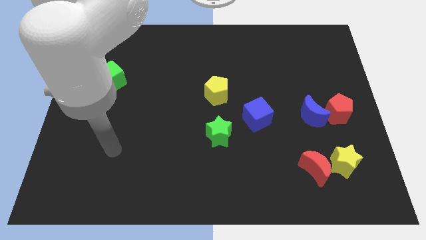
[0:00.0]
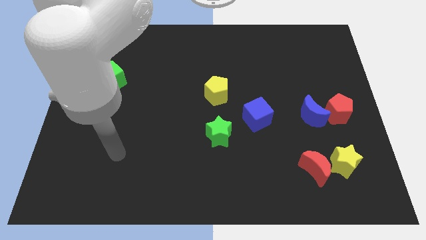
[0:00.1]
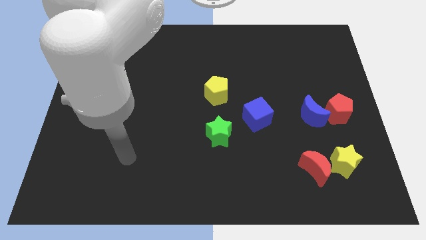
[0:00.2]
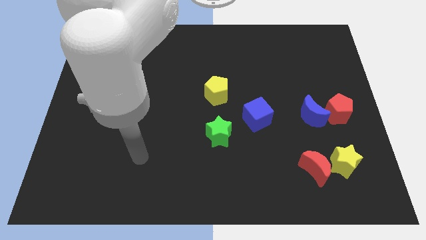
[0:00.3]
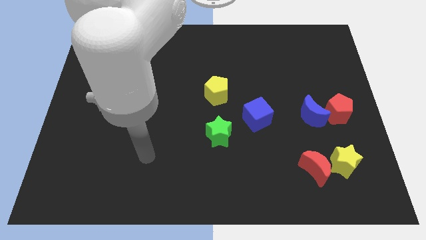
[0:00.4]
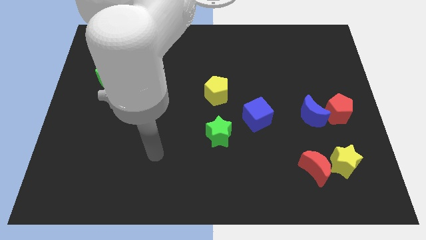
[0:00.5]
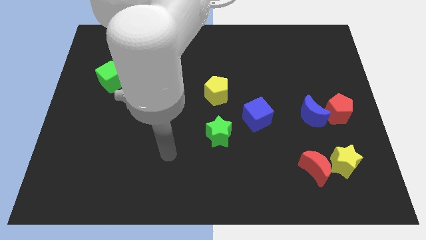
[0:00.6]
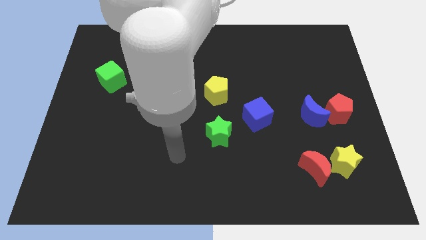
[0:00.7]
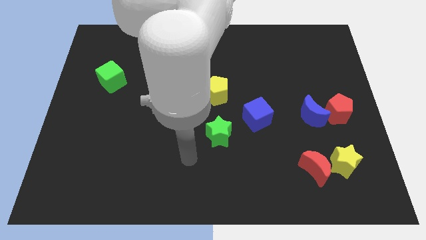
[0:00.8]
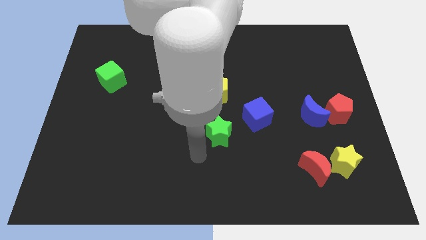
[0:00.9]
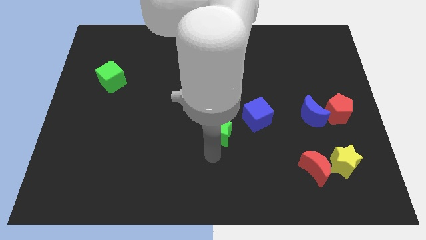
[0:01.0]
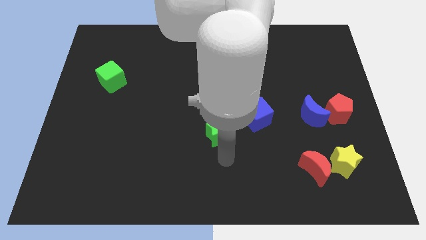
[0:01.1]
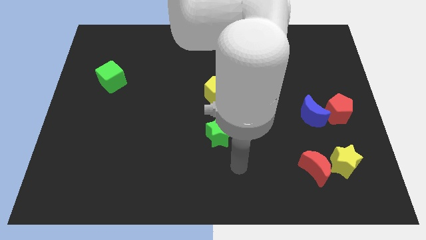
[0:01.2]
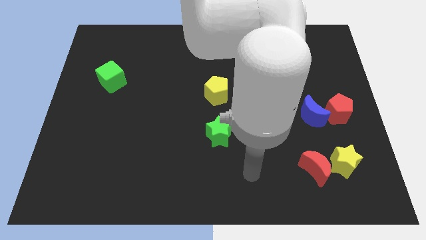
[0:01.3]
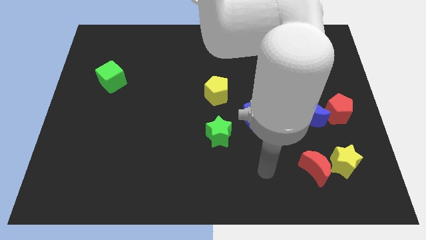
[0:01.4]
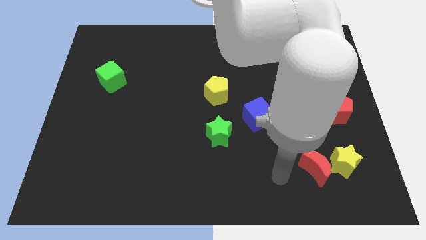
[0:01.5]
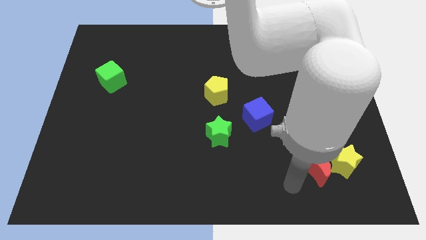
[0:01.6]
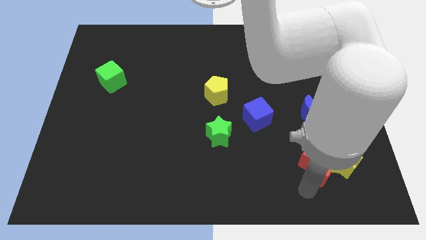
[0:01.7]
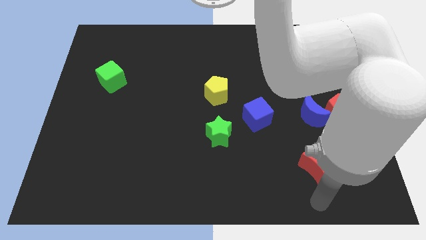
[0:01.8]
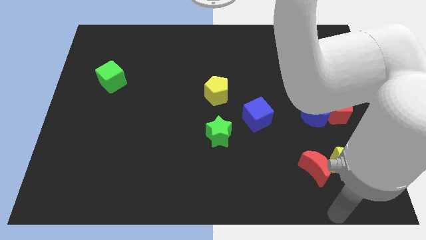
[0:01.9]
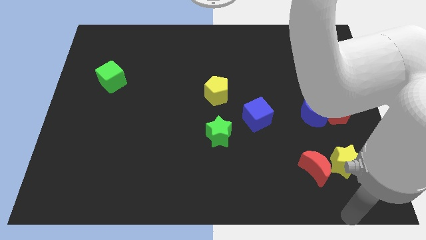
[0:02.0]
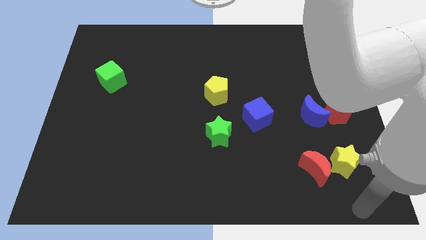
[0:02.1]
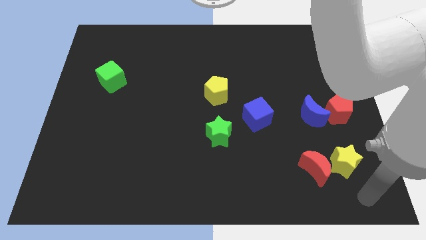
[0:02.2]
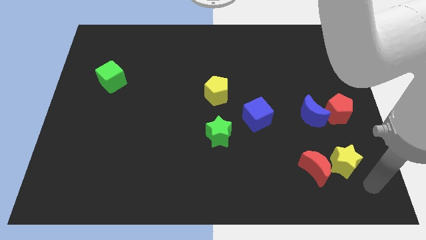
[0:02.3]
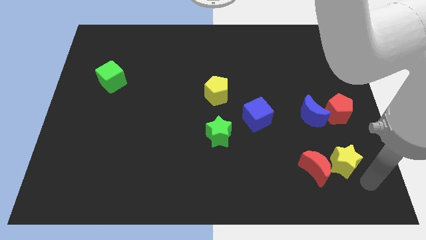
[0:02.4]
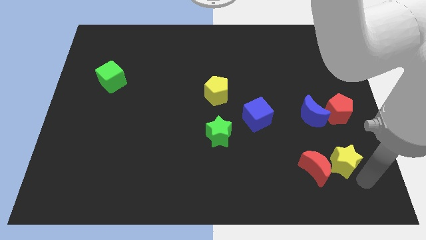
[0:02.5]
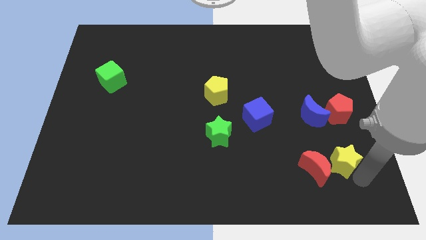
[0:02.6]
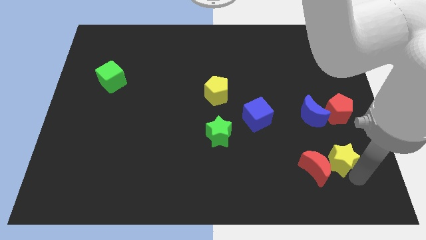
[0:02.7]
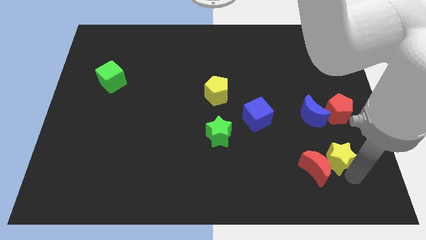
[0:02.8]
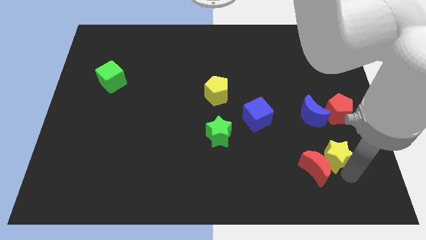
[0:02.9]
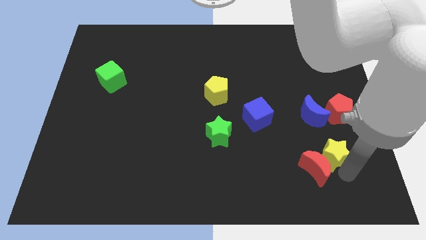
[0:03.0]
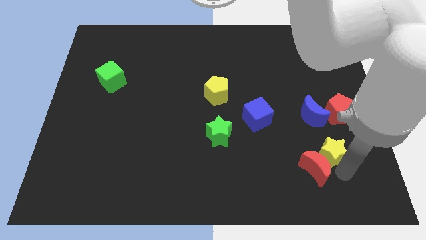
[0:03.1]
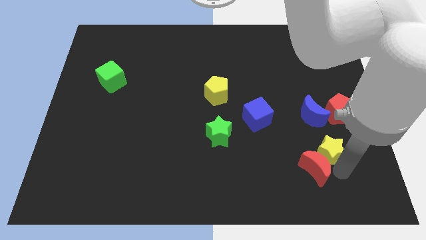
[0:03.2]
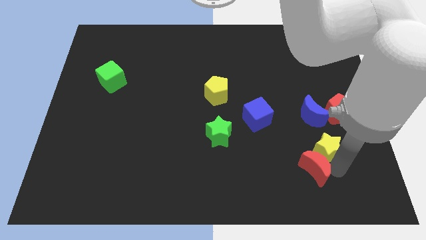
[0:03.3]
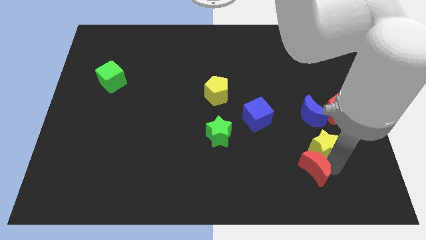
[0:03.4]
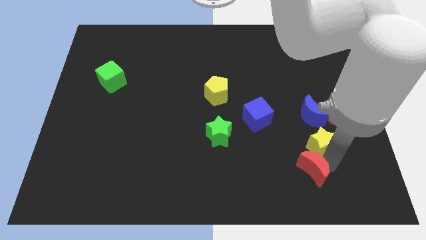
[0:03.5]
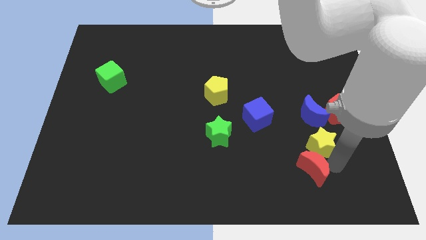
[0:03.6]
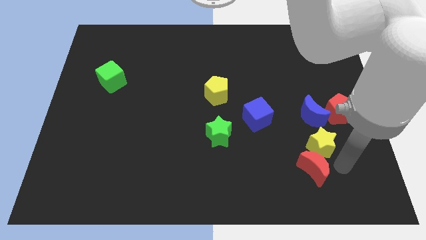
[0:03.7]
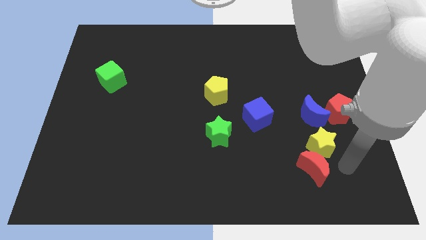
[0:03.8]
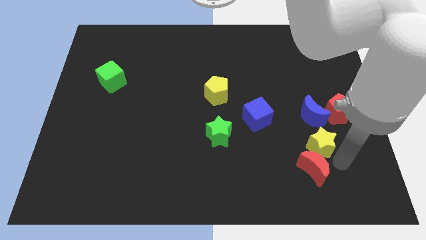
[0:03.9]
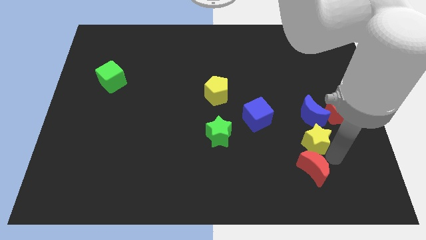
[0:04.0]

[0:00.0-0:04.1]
slide the yellow star slightly upwards and then to the left

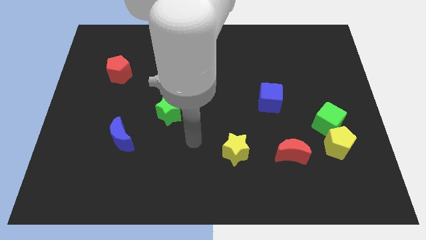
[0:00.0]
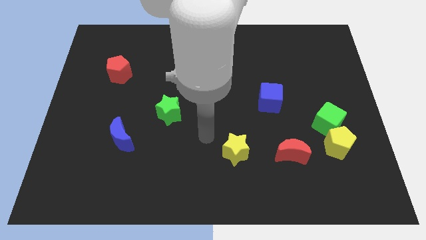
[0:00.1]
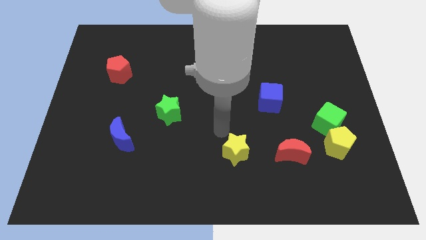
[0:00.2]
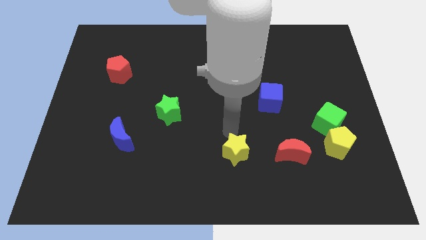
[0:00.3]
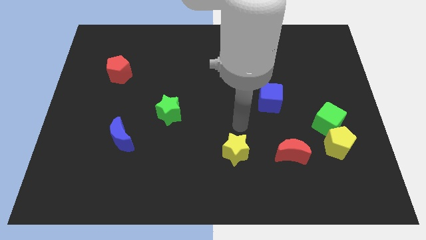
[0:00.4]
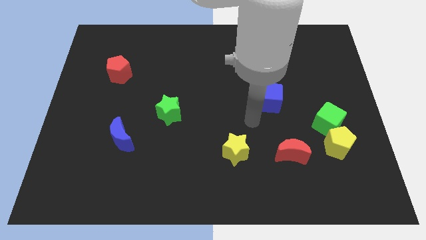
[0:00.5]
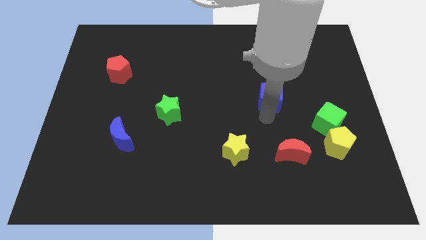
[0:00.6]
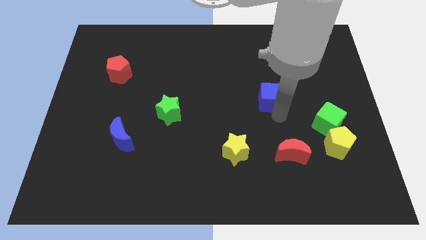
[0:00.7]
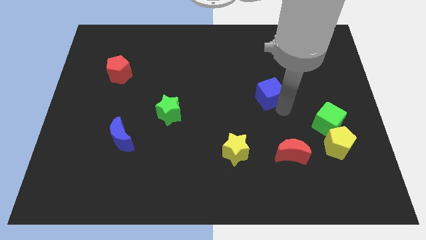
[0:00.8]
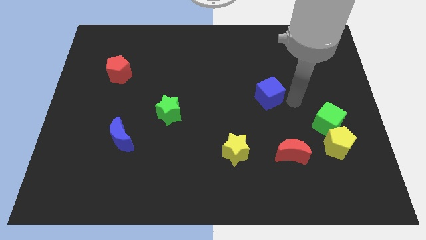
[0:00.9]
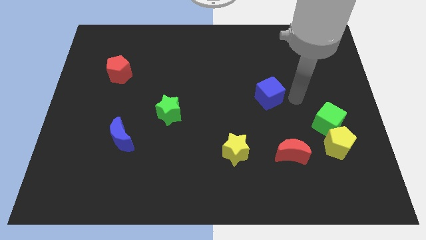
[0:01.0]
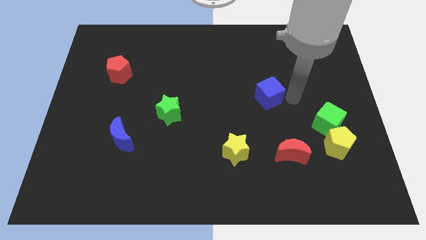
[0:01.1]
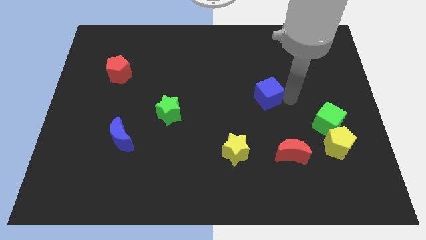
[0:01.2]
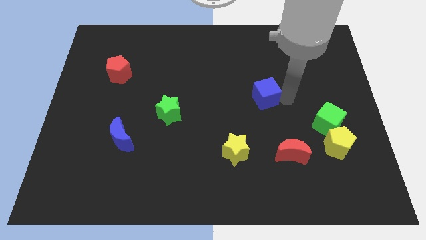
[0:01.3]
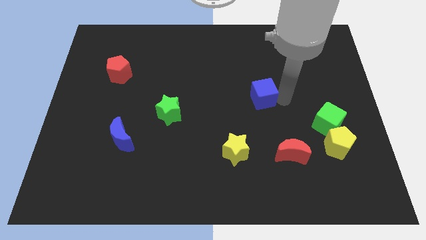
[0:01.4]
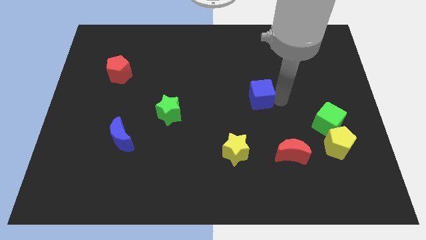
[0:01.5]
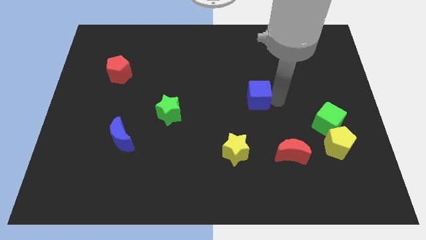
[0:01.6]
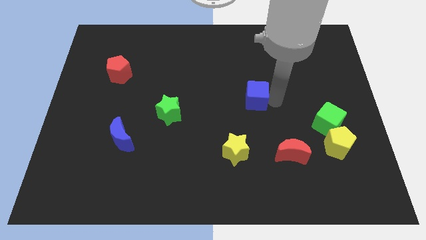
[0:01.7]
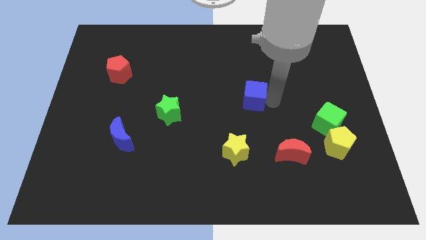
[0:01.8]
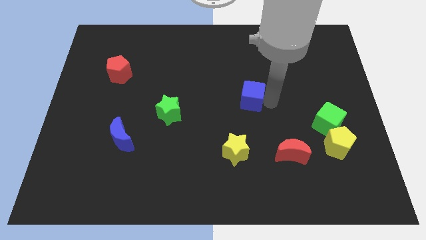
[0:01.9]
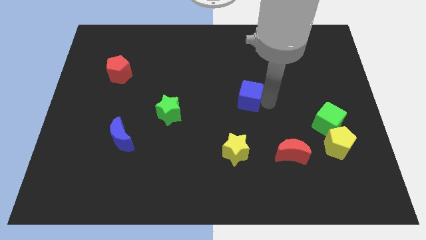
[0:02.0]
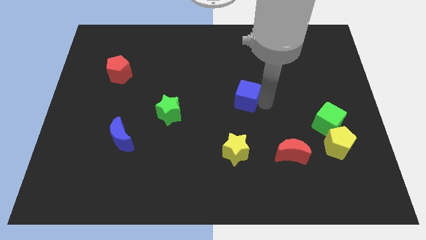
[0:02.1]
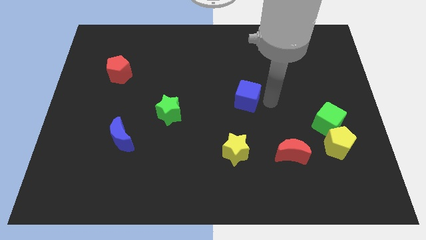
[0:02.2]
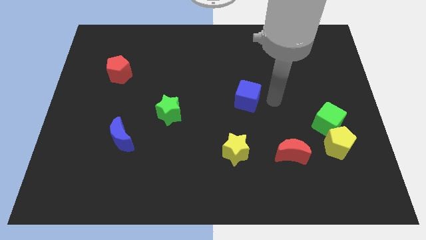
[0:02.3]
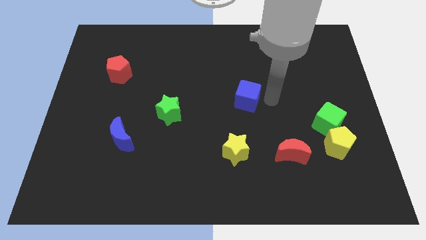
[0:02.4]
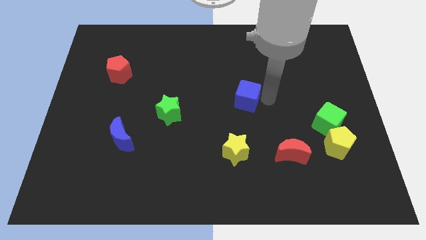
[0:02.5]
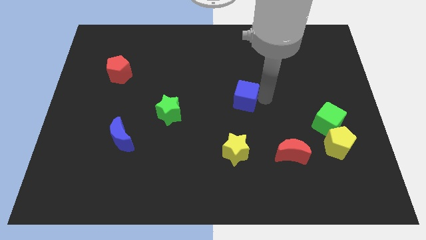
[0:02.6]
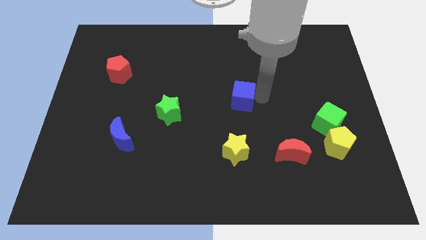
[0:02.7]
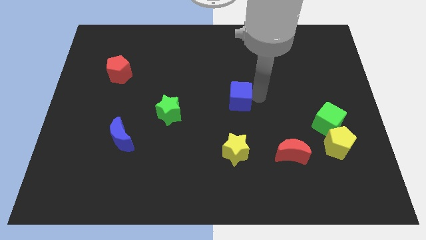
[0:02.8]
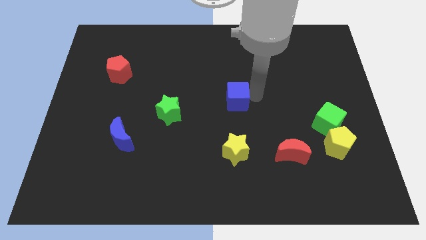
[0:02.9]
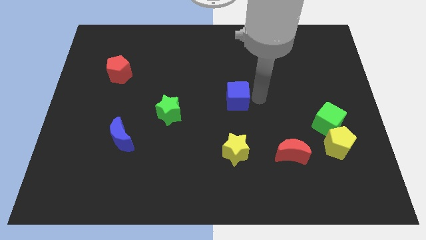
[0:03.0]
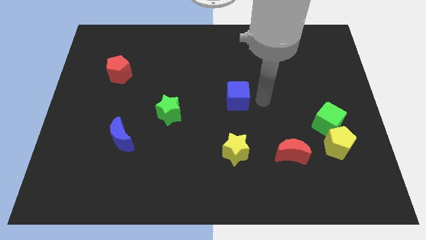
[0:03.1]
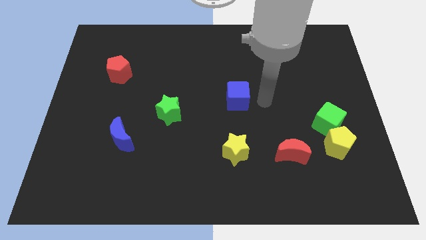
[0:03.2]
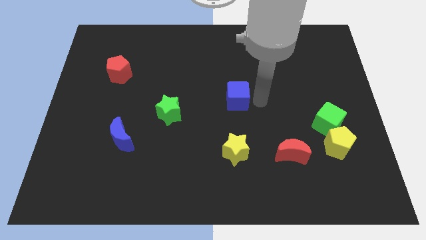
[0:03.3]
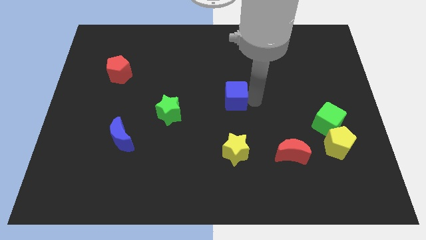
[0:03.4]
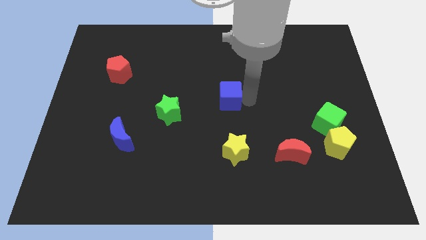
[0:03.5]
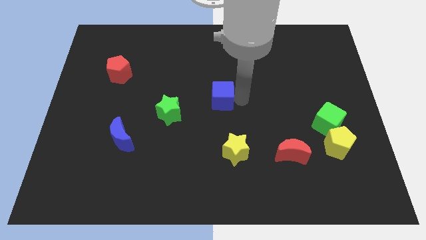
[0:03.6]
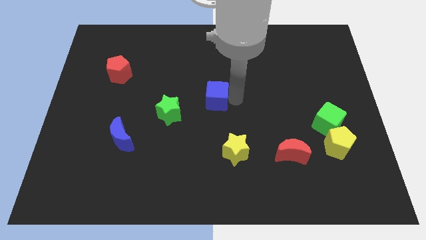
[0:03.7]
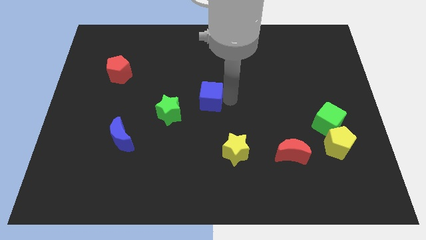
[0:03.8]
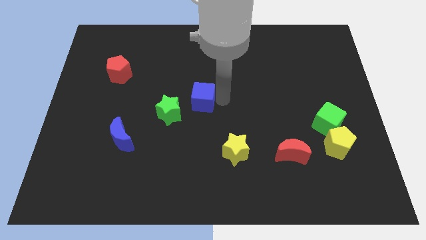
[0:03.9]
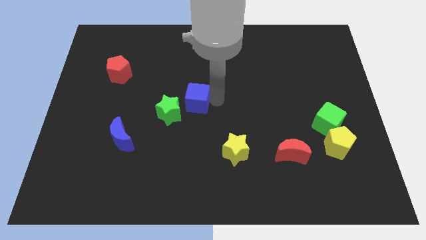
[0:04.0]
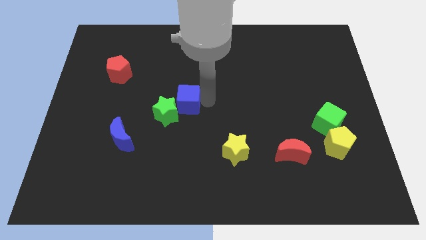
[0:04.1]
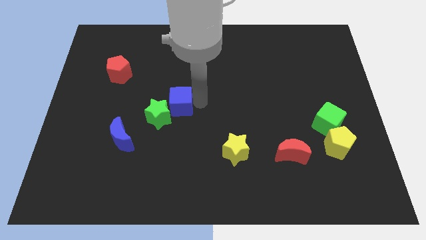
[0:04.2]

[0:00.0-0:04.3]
slide the blue cube to the left
